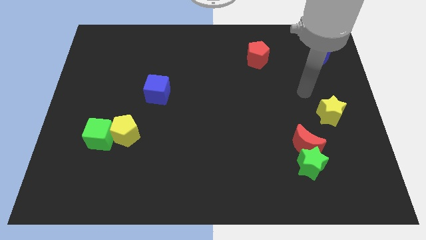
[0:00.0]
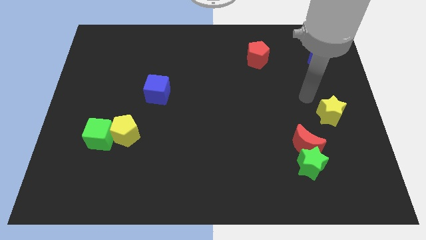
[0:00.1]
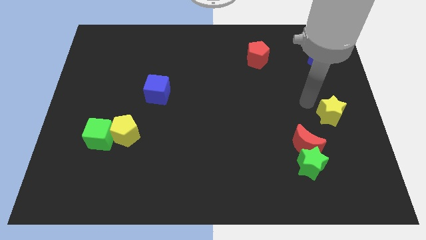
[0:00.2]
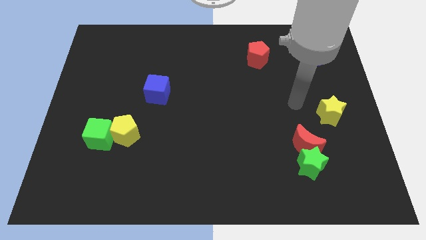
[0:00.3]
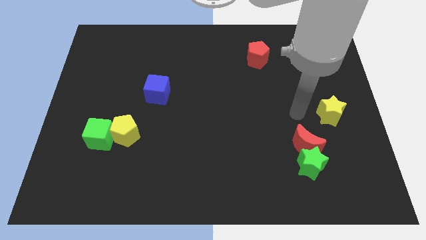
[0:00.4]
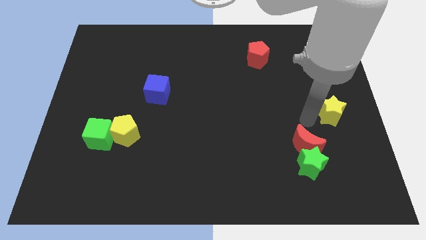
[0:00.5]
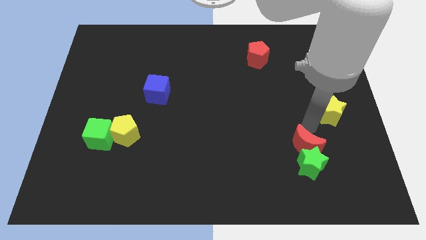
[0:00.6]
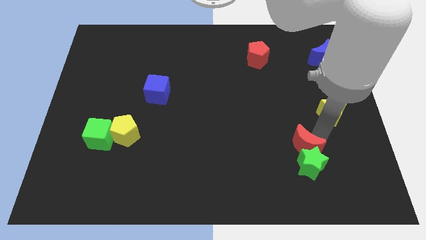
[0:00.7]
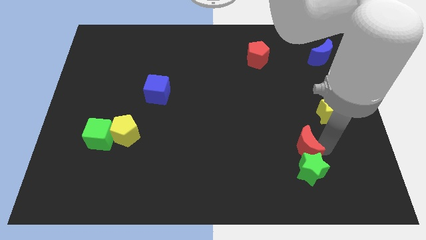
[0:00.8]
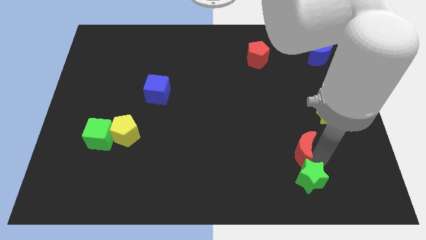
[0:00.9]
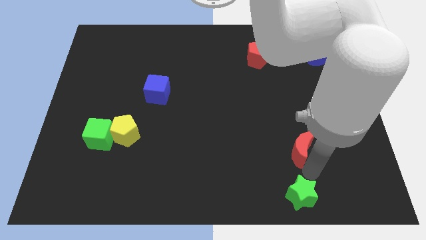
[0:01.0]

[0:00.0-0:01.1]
pull the red moon apart from the green star

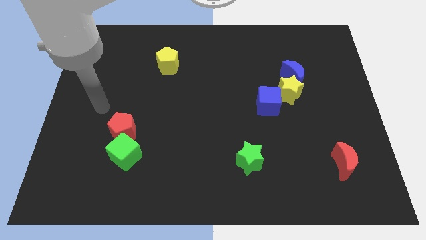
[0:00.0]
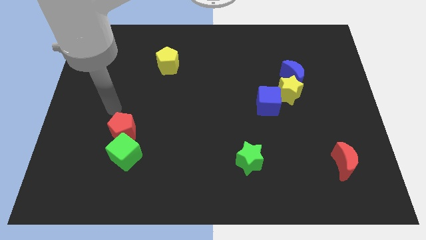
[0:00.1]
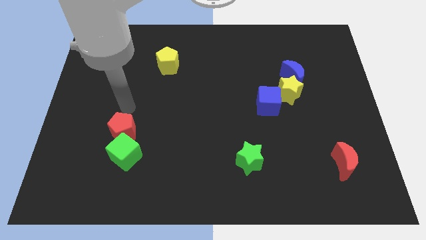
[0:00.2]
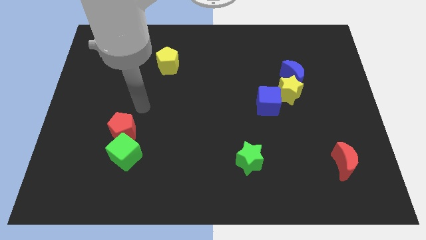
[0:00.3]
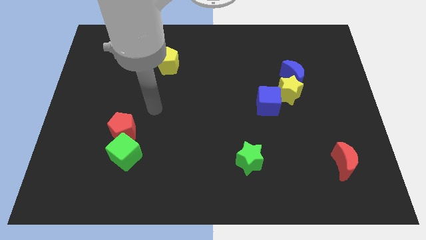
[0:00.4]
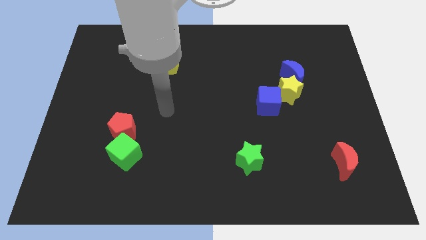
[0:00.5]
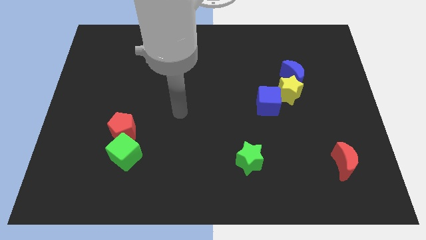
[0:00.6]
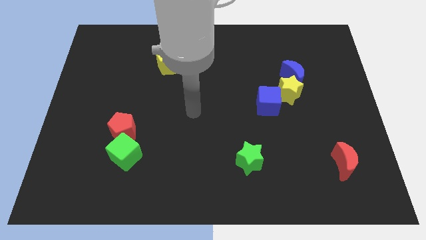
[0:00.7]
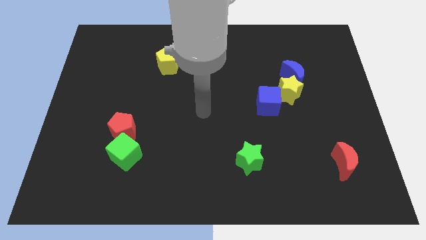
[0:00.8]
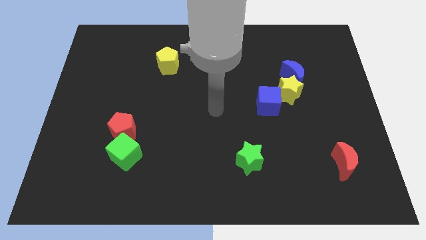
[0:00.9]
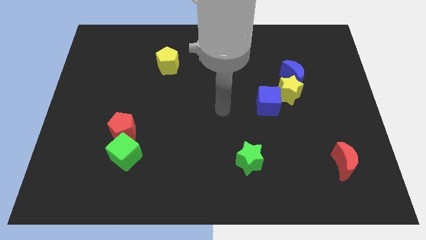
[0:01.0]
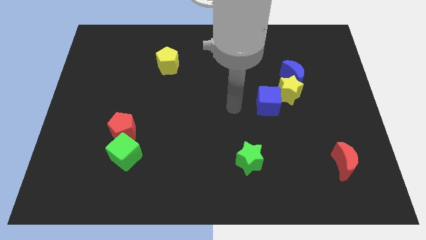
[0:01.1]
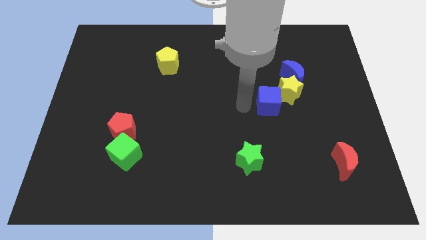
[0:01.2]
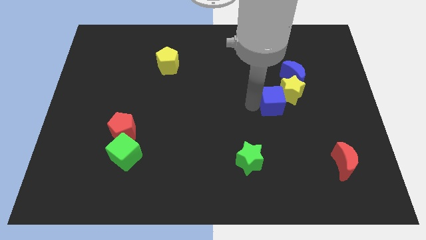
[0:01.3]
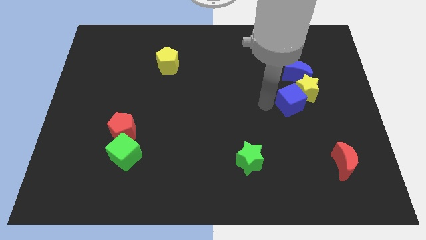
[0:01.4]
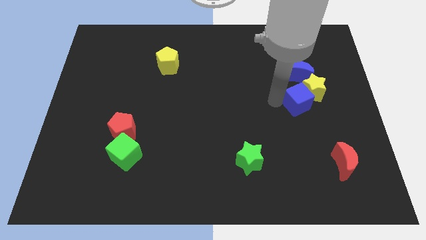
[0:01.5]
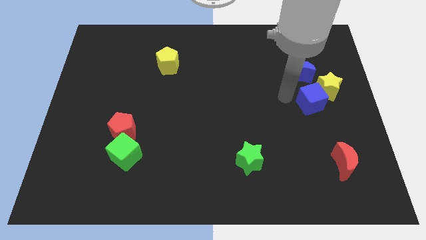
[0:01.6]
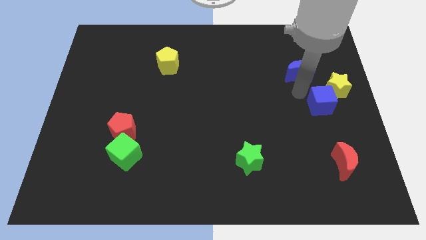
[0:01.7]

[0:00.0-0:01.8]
pull the blue moon apart from the yellow star

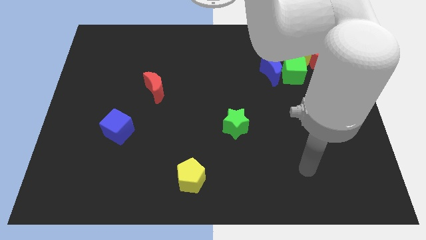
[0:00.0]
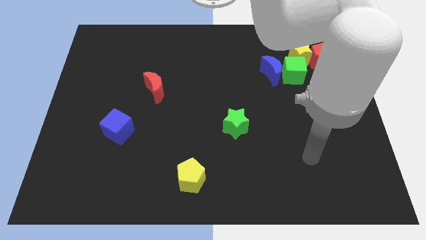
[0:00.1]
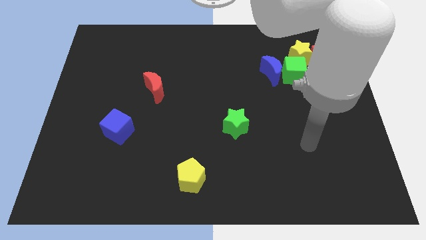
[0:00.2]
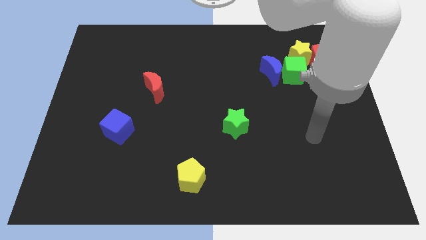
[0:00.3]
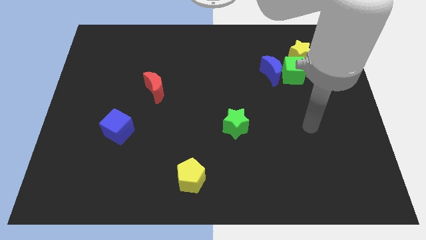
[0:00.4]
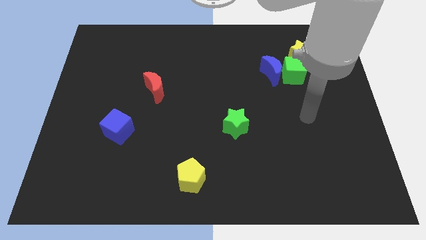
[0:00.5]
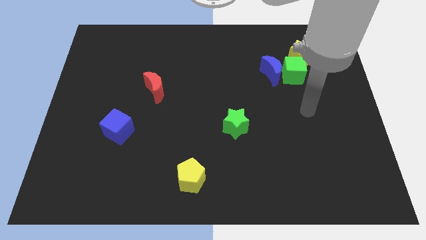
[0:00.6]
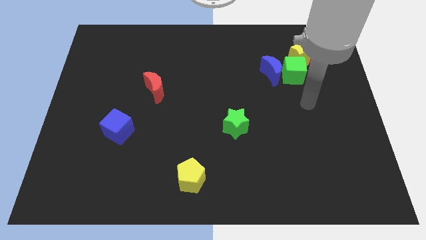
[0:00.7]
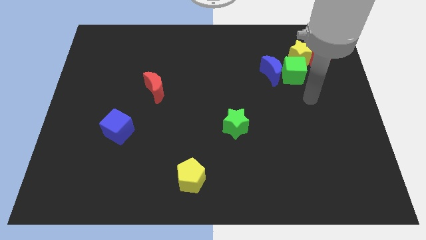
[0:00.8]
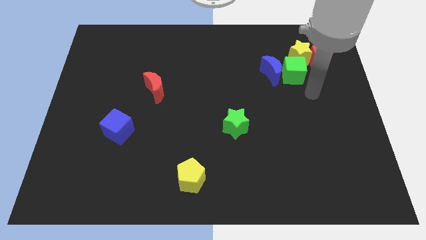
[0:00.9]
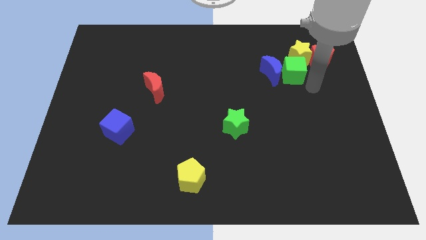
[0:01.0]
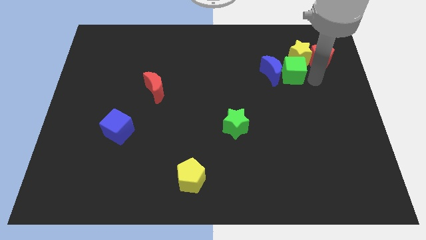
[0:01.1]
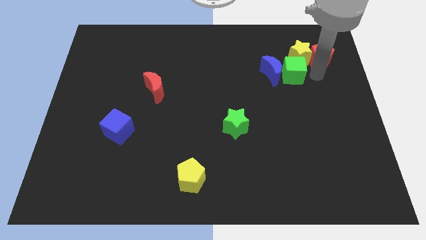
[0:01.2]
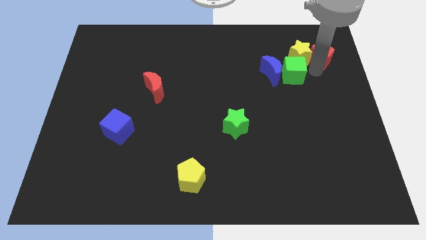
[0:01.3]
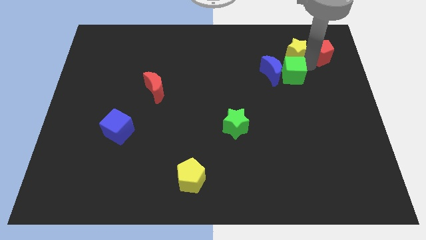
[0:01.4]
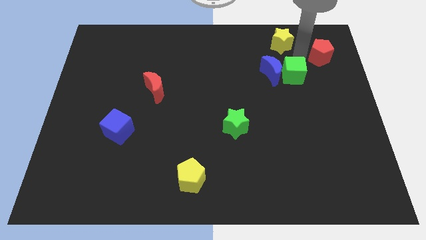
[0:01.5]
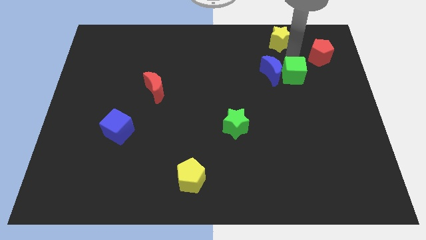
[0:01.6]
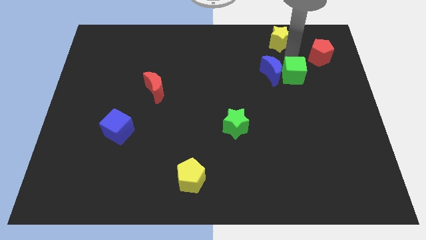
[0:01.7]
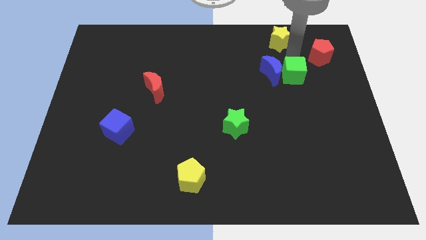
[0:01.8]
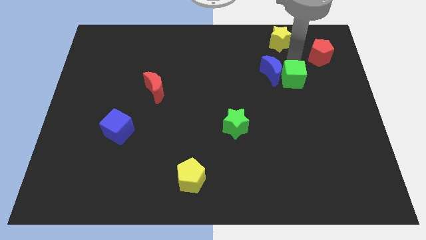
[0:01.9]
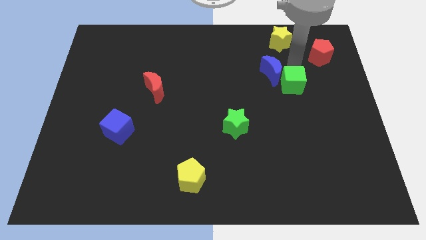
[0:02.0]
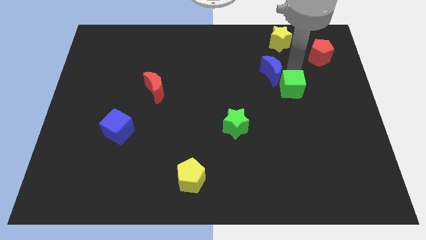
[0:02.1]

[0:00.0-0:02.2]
separate the green cube from the blue moon, yellow star, and red pentagon

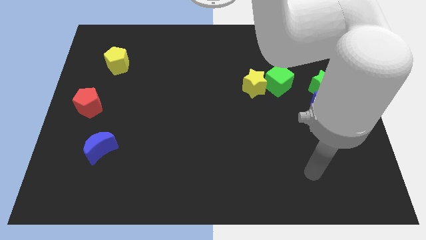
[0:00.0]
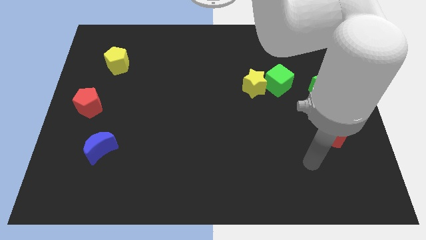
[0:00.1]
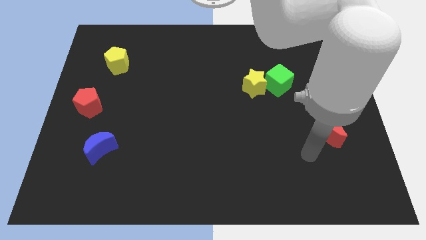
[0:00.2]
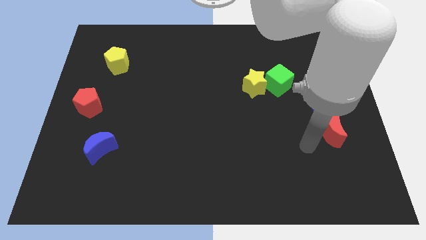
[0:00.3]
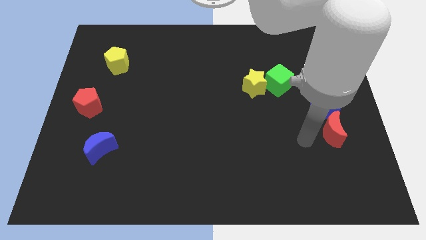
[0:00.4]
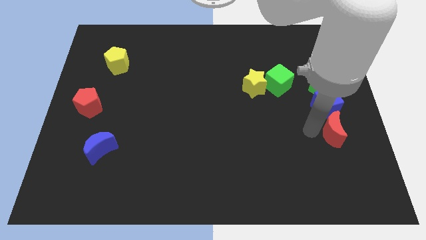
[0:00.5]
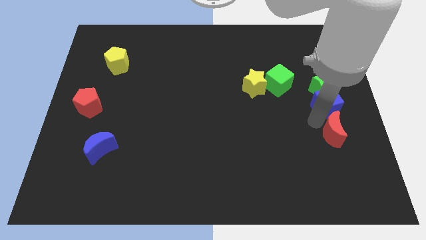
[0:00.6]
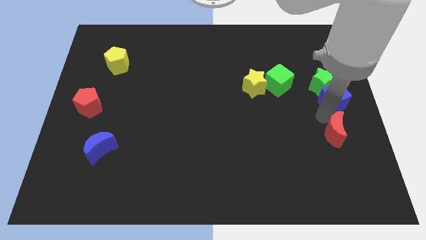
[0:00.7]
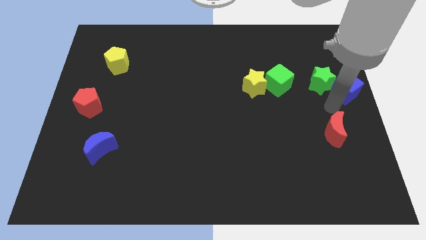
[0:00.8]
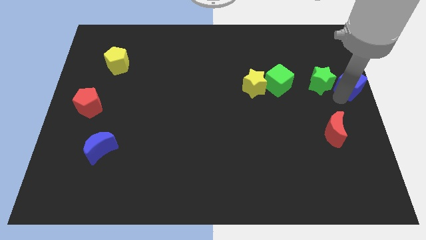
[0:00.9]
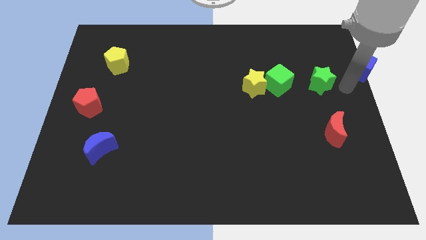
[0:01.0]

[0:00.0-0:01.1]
move the green star away from the blue cube

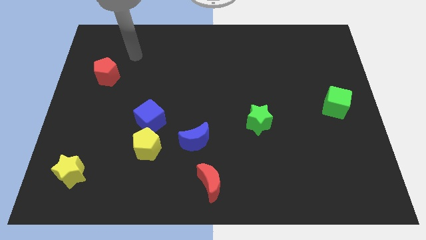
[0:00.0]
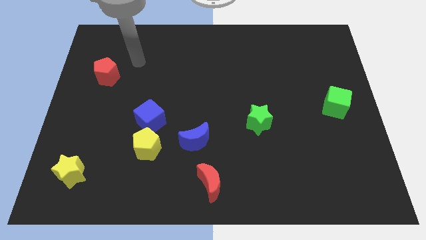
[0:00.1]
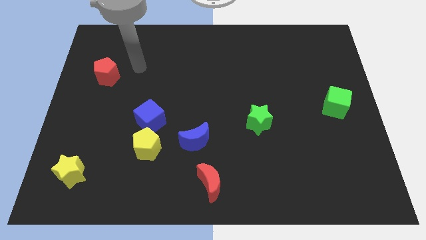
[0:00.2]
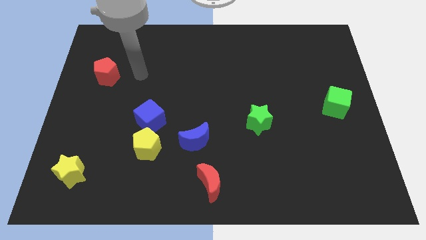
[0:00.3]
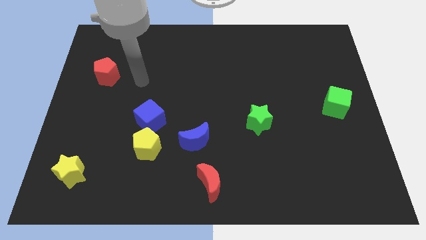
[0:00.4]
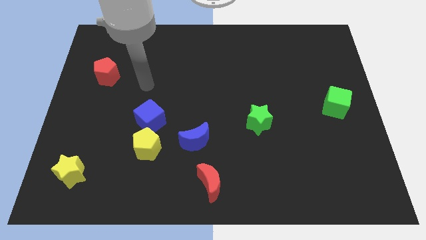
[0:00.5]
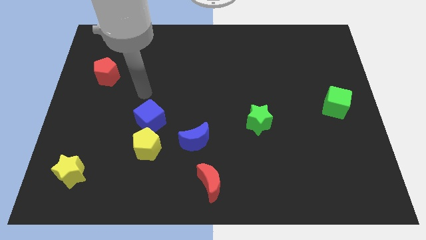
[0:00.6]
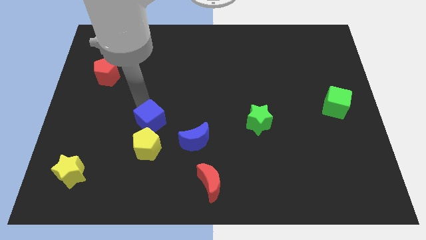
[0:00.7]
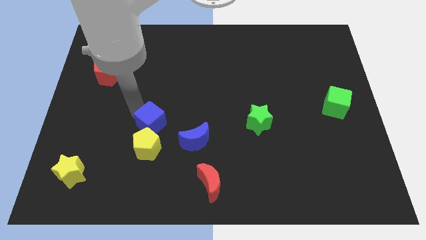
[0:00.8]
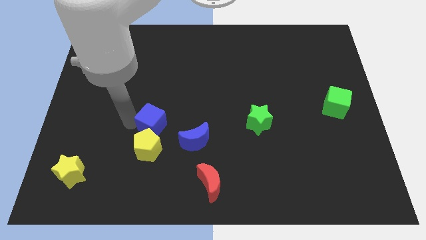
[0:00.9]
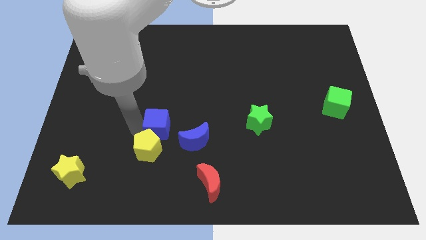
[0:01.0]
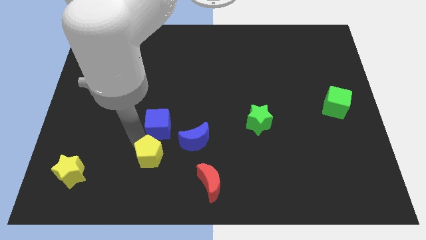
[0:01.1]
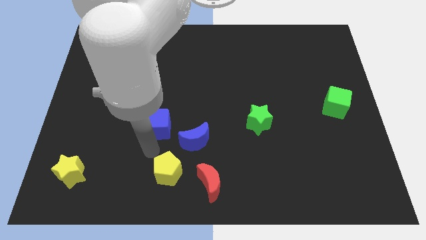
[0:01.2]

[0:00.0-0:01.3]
move the blue cube away from the yellow pentagon

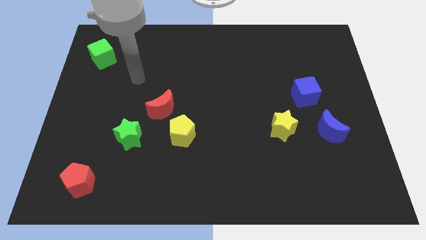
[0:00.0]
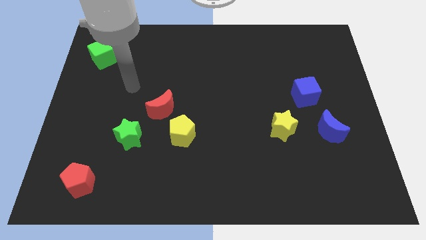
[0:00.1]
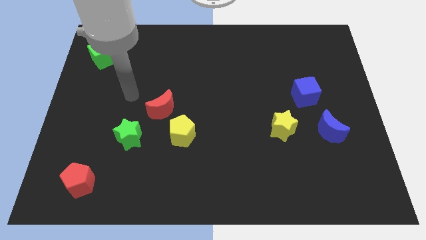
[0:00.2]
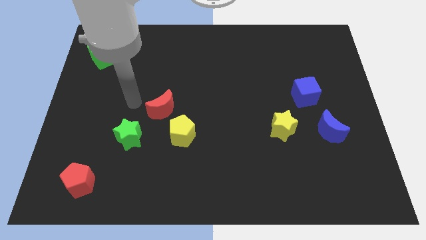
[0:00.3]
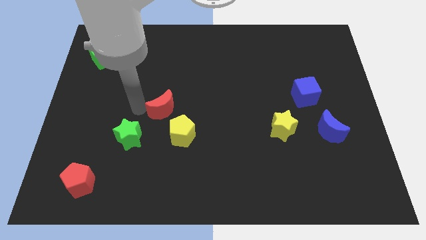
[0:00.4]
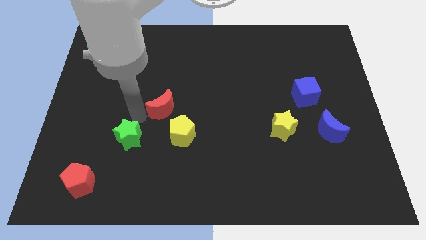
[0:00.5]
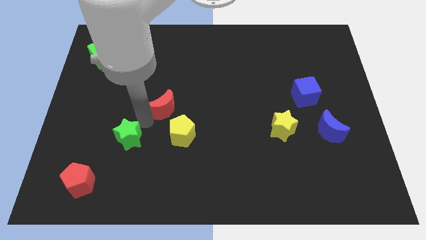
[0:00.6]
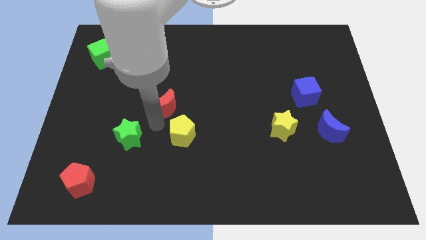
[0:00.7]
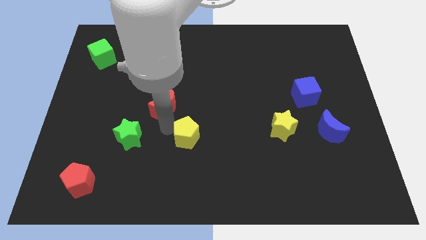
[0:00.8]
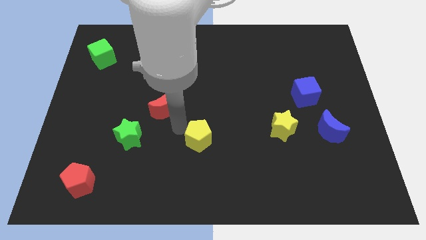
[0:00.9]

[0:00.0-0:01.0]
separate the red moon from the yellow pentagon

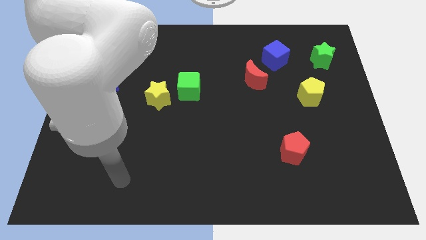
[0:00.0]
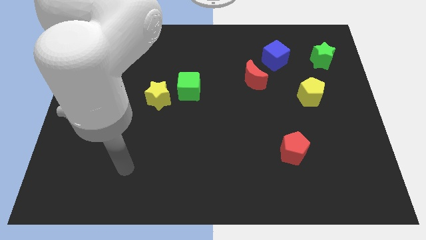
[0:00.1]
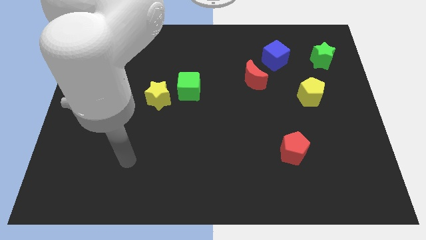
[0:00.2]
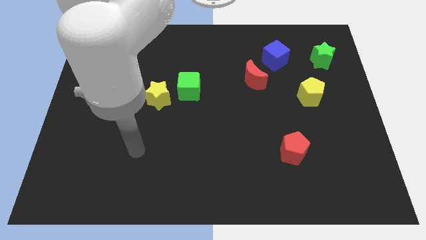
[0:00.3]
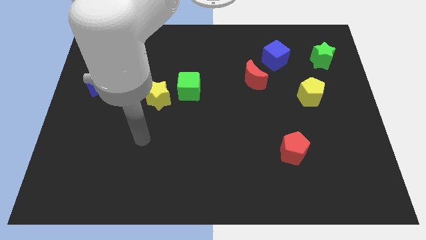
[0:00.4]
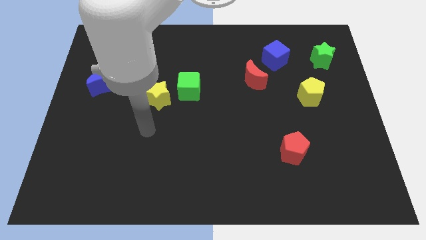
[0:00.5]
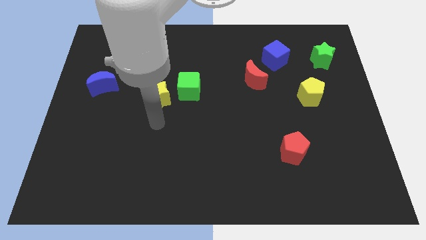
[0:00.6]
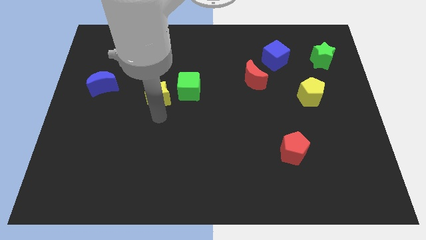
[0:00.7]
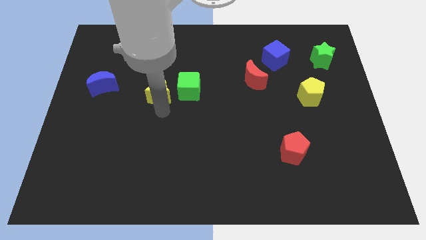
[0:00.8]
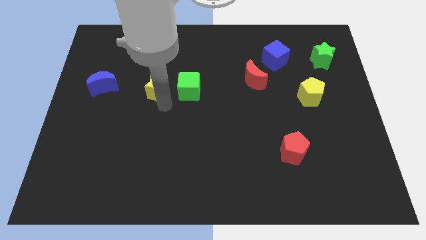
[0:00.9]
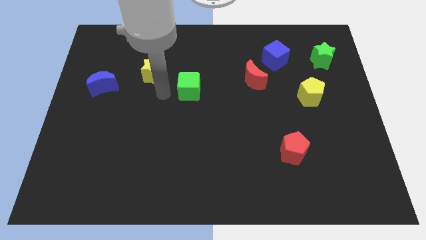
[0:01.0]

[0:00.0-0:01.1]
separate the green cube from the yellow star
